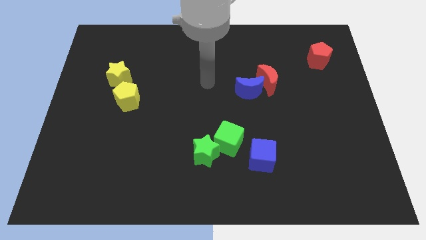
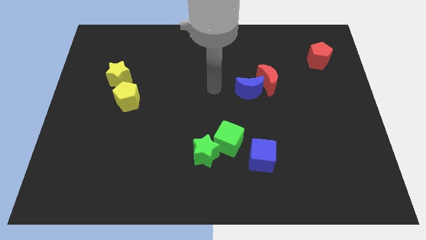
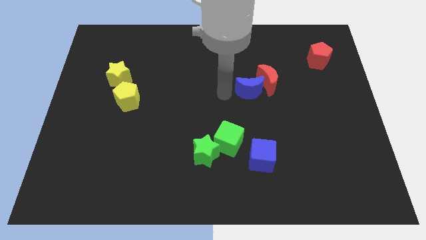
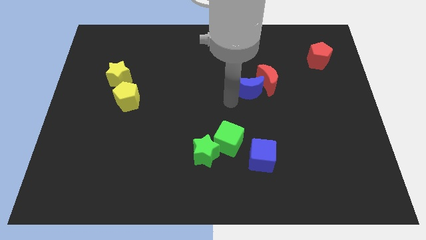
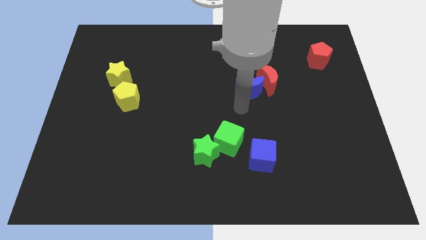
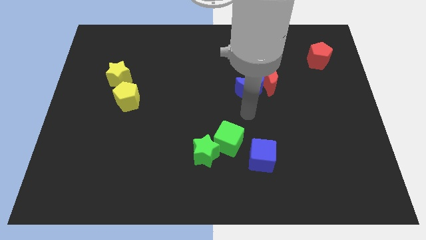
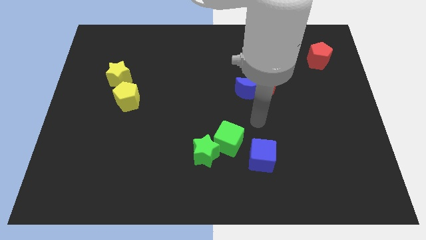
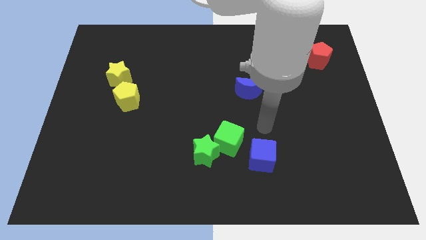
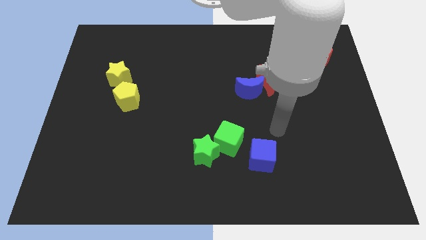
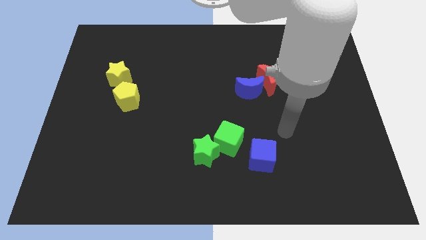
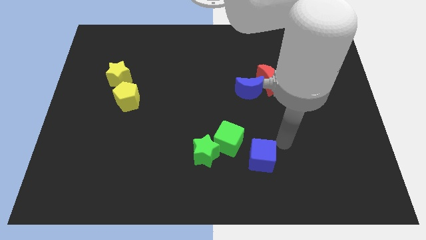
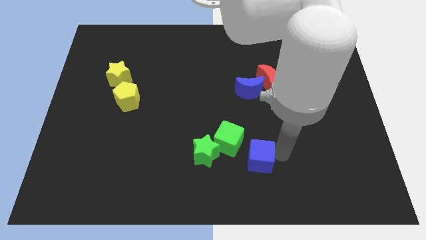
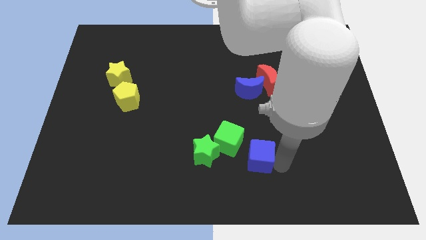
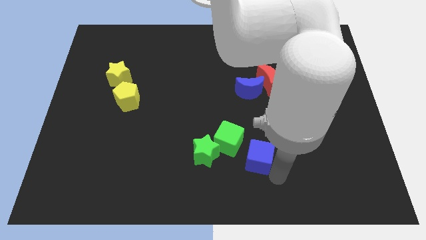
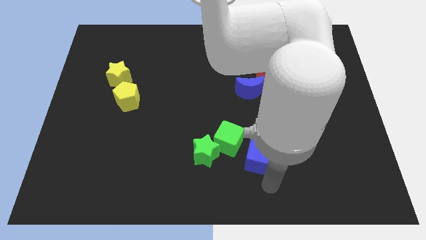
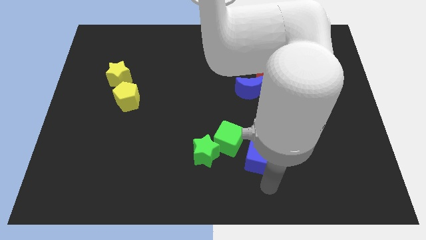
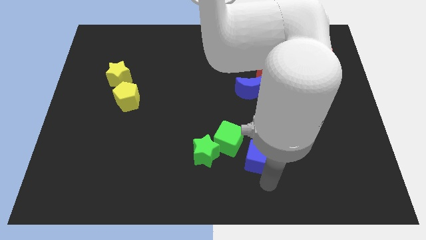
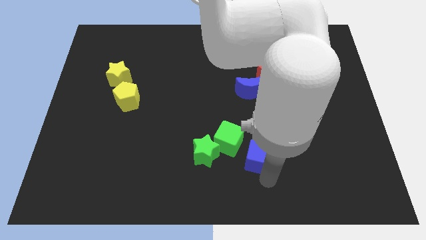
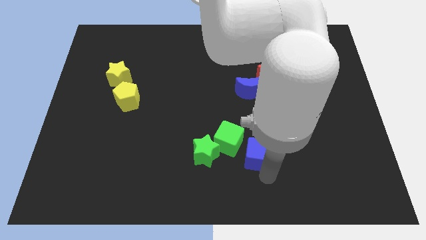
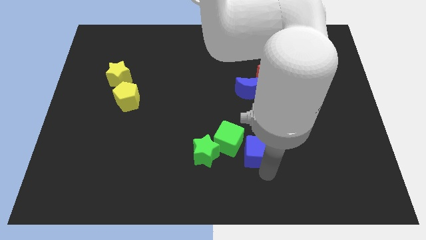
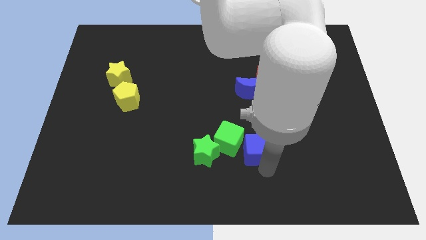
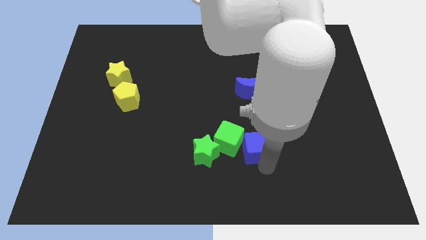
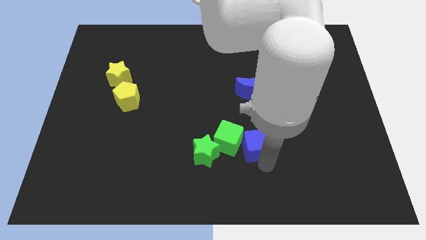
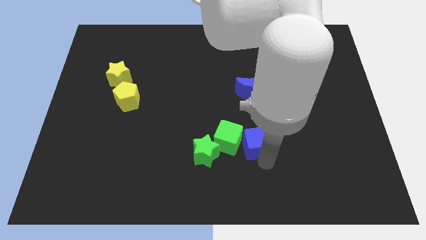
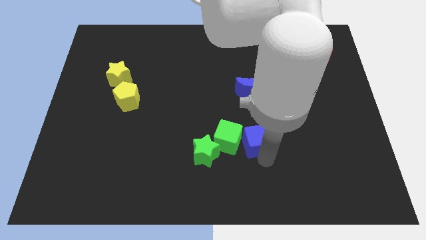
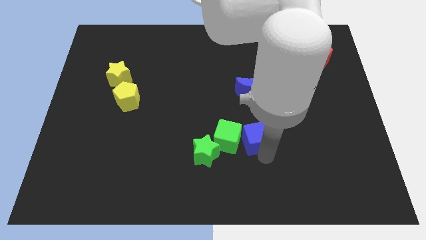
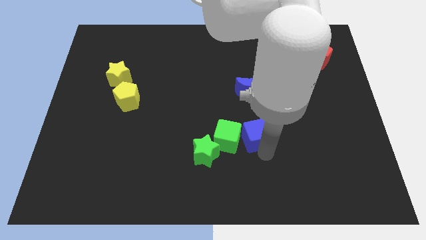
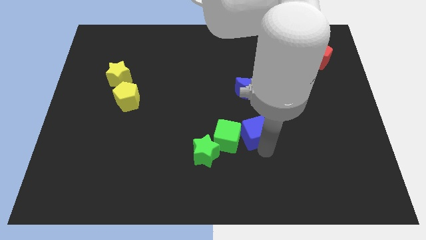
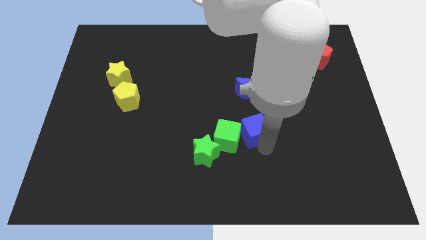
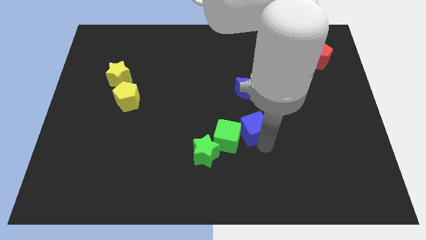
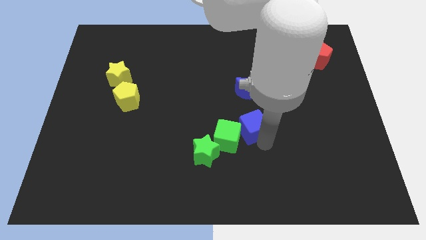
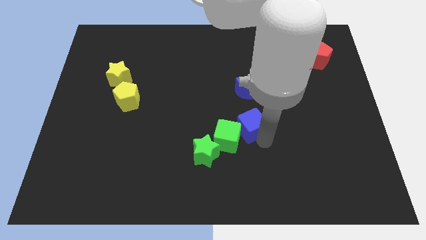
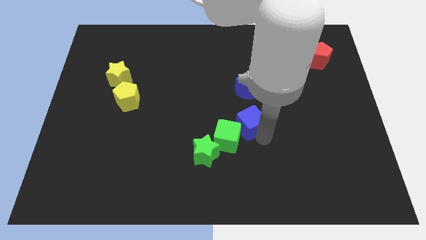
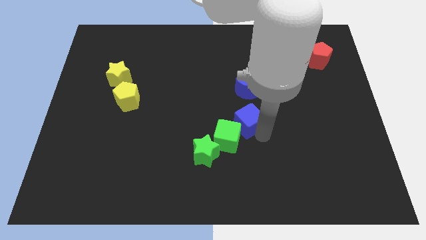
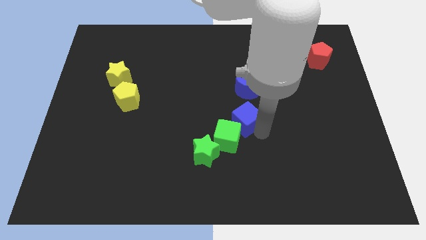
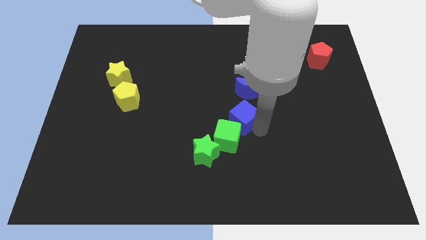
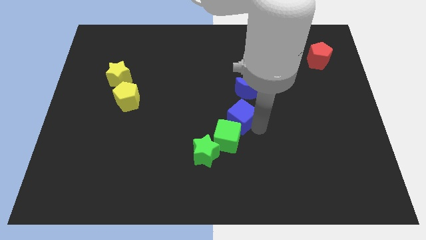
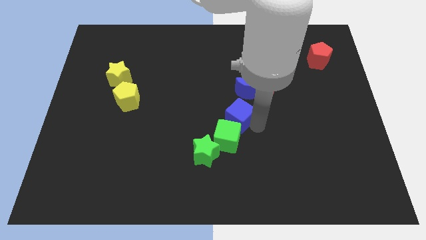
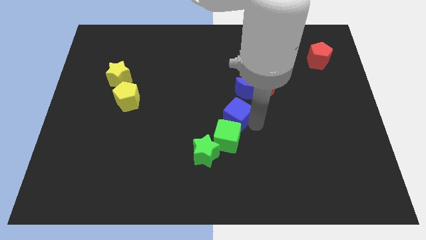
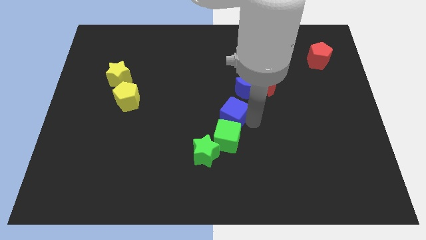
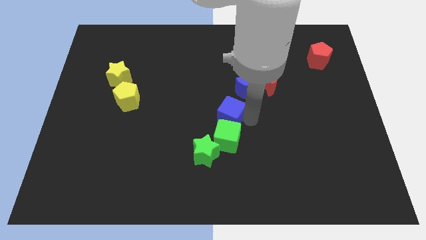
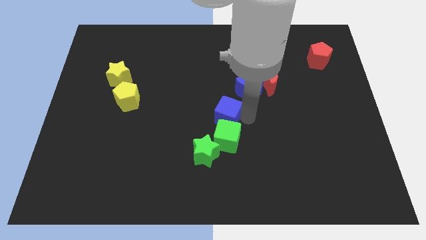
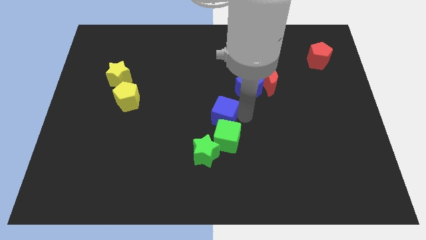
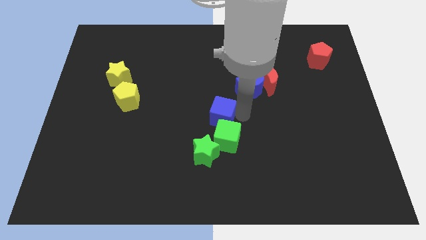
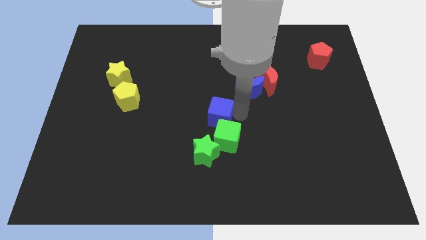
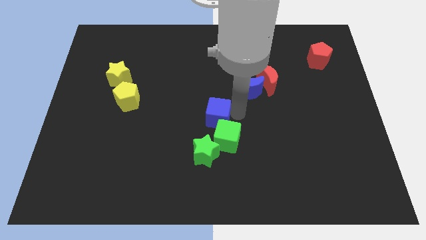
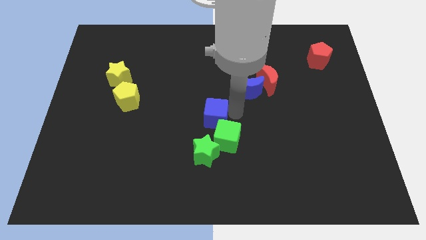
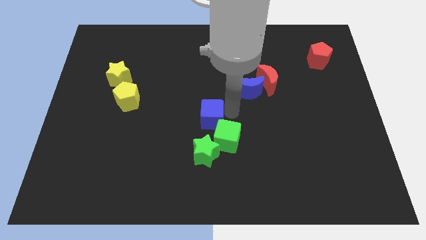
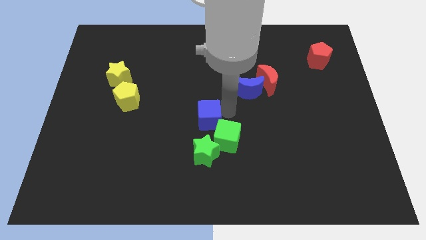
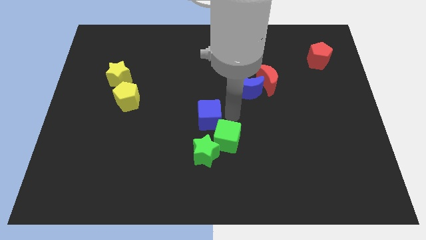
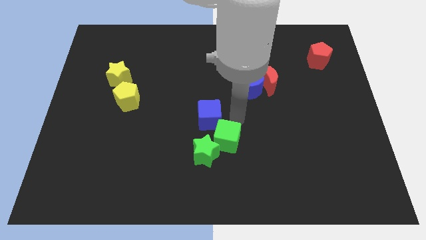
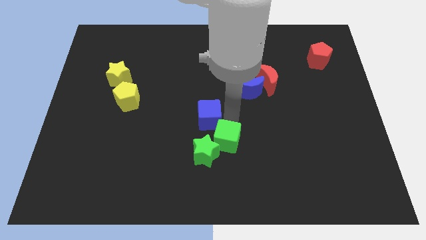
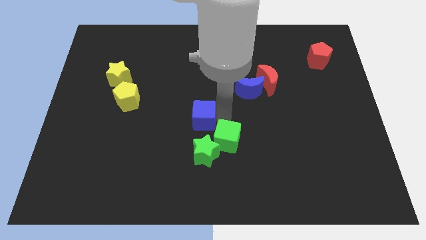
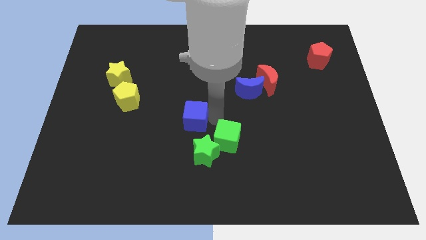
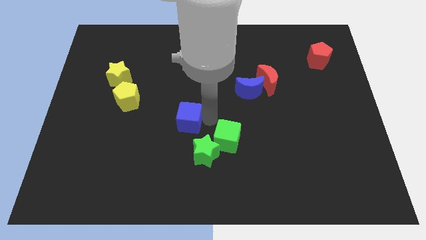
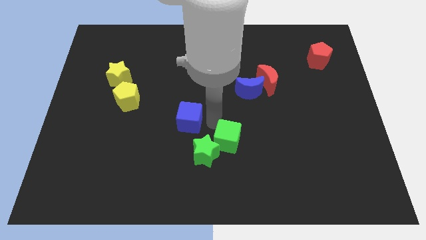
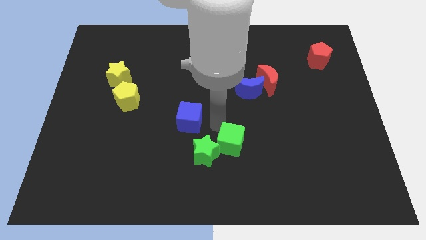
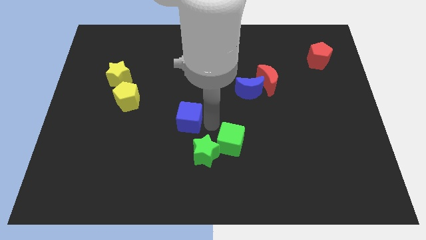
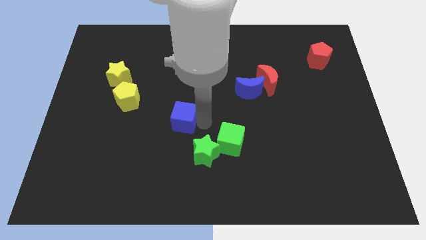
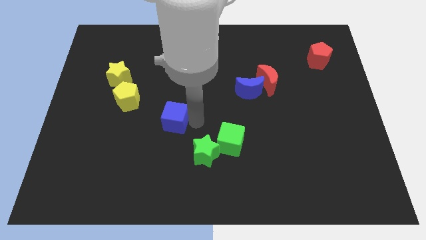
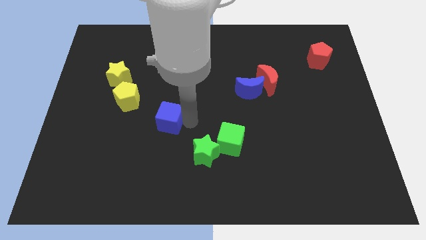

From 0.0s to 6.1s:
put the blue cube to the bottom right side of the yellow pentagon

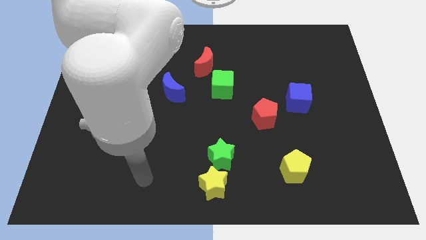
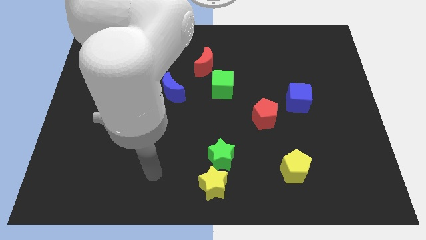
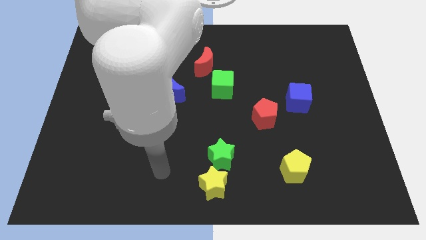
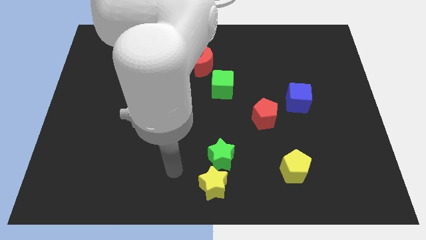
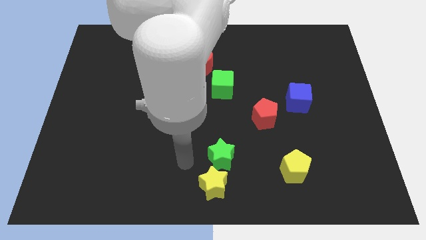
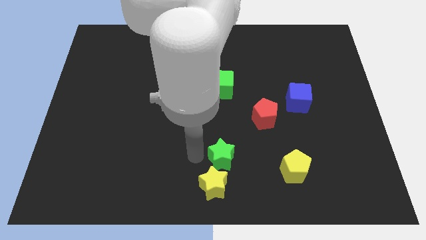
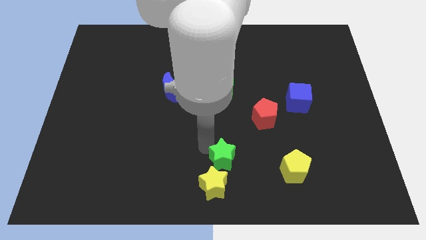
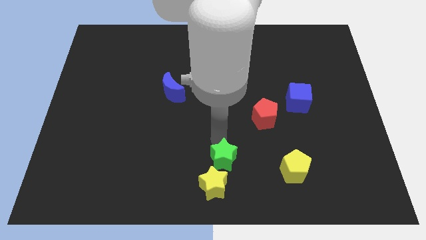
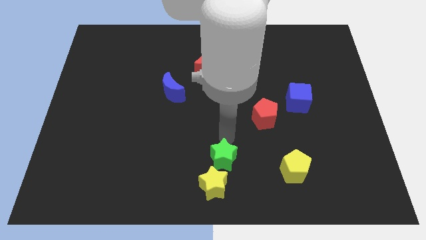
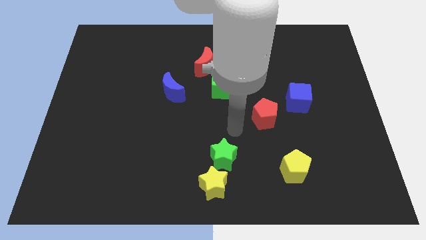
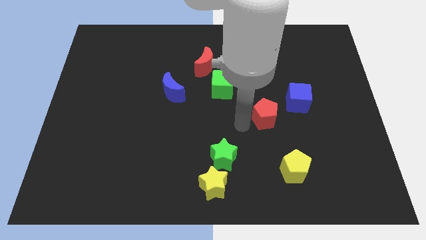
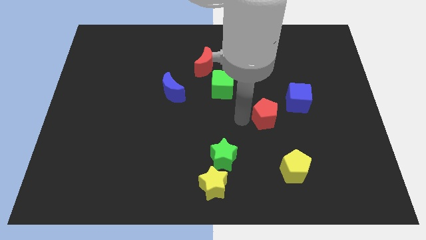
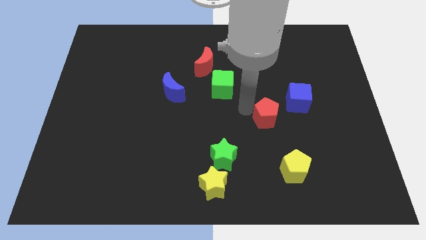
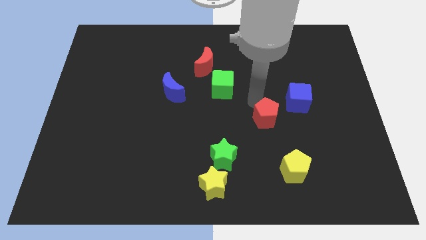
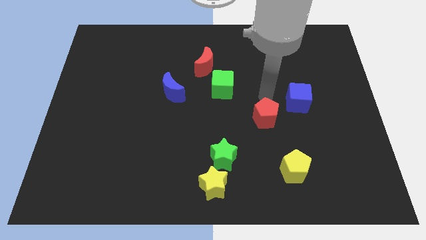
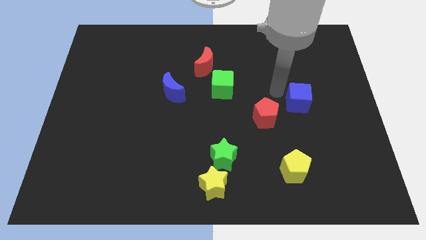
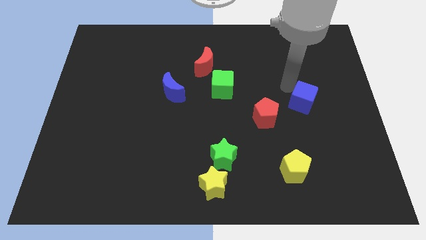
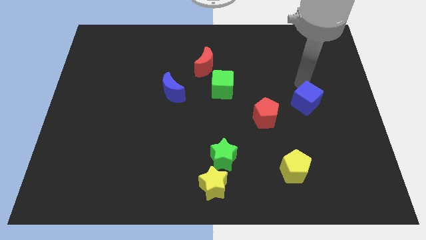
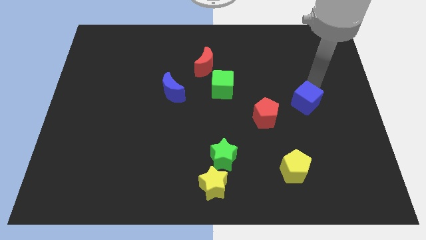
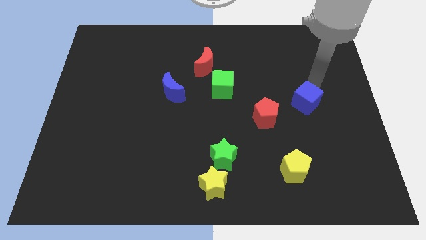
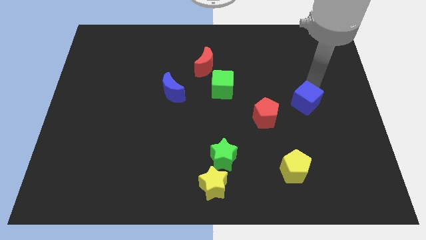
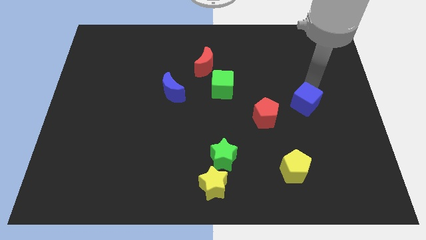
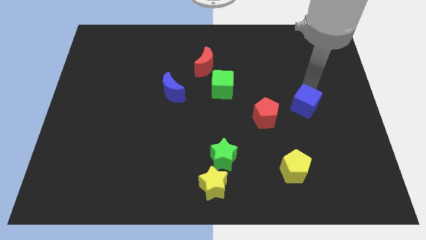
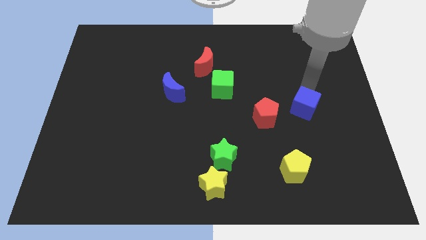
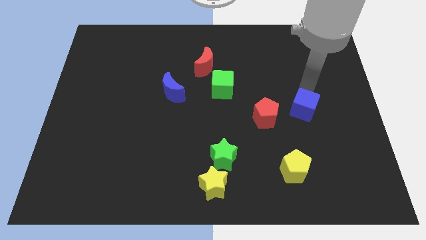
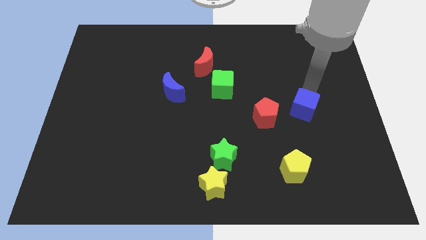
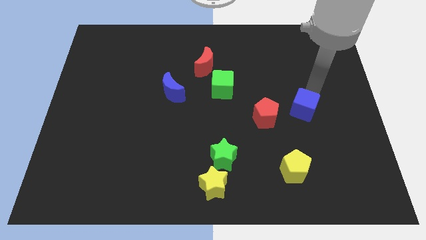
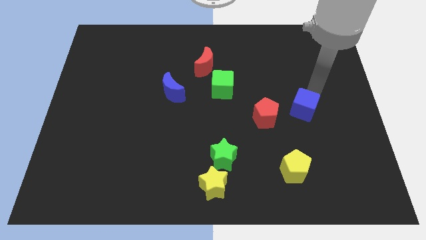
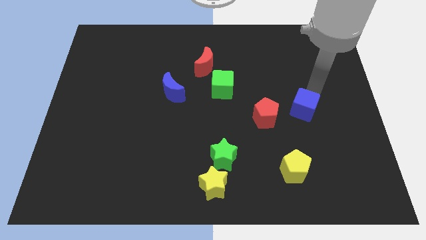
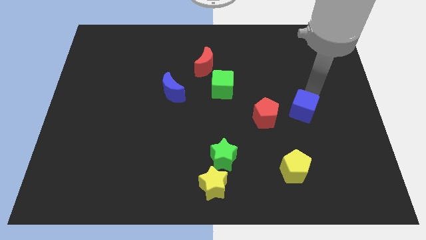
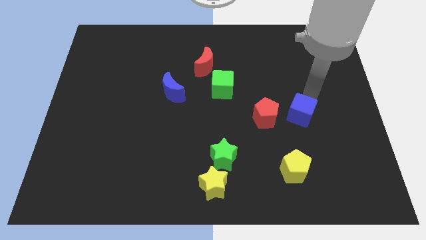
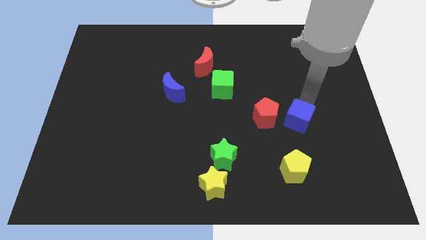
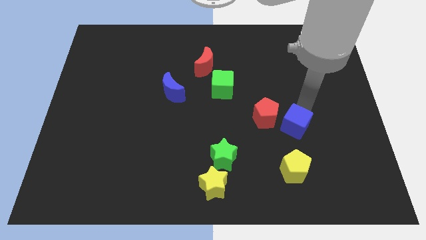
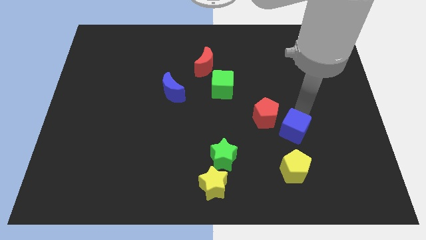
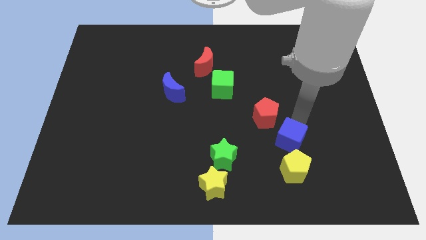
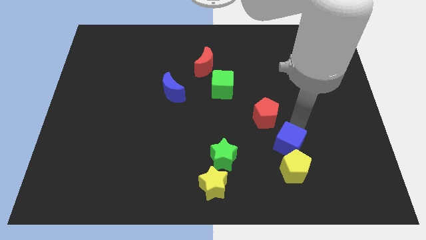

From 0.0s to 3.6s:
push the blue cube just right of the green star
